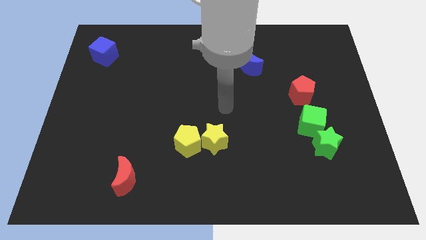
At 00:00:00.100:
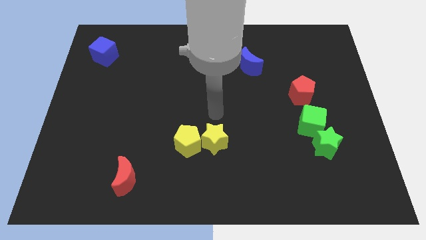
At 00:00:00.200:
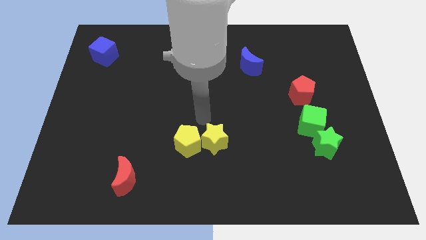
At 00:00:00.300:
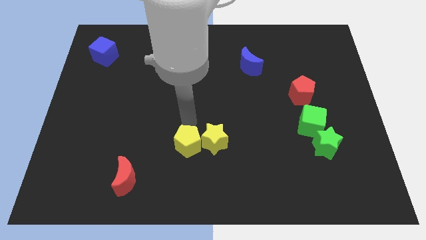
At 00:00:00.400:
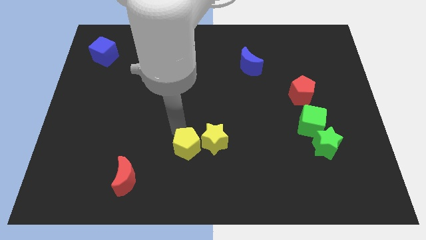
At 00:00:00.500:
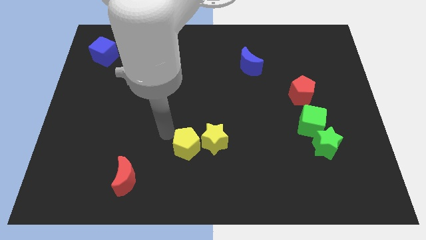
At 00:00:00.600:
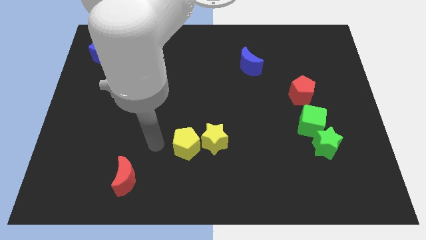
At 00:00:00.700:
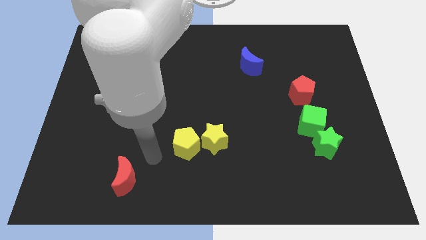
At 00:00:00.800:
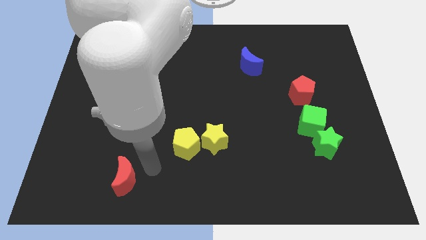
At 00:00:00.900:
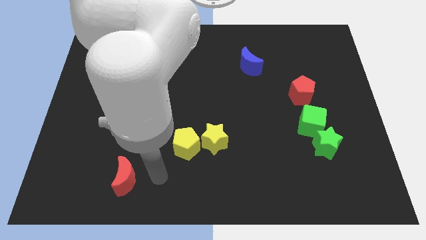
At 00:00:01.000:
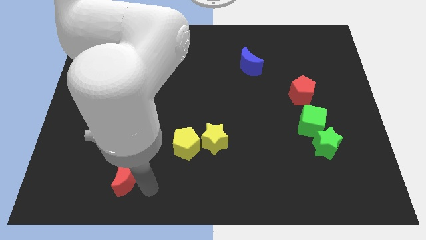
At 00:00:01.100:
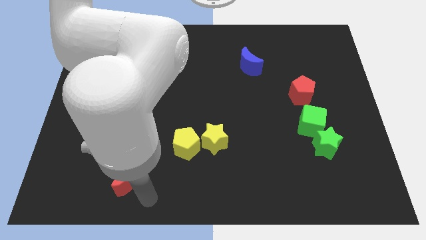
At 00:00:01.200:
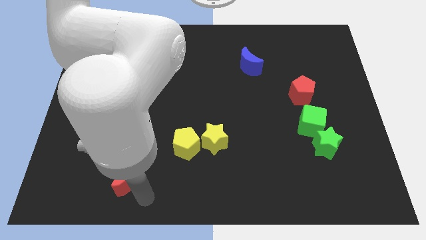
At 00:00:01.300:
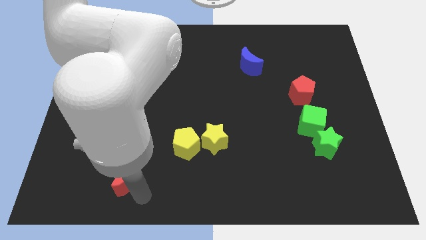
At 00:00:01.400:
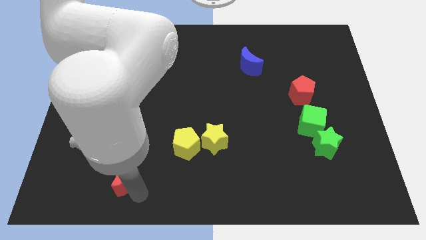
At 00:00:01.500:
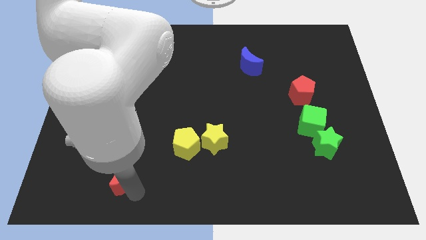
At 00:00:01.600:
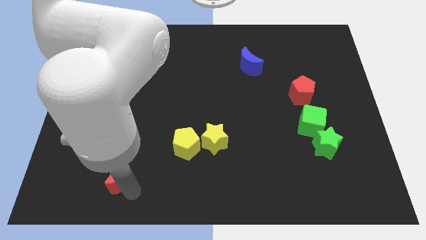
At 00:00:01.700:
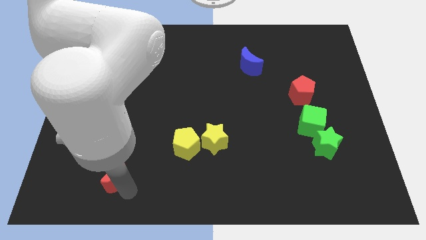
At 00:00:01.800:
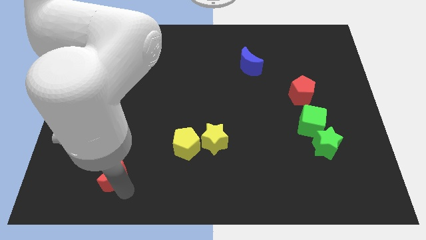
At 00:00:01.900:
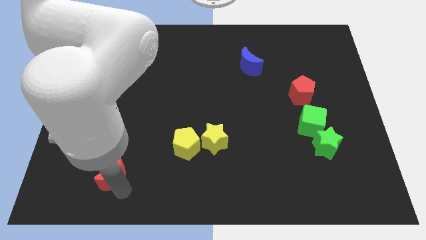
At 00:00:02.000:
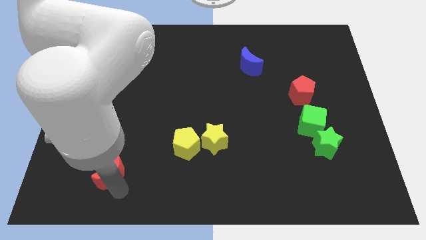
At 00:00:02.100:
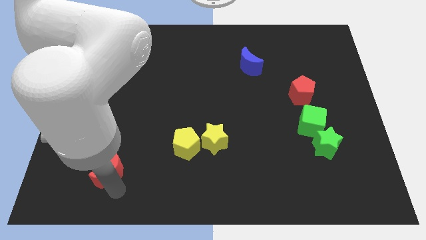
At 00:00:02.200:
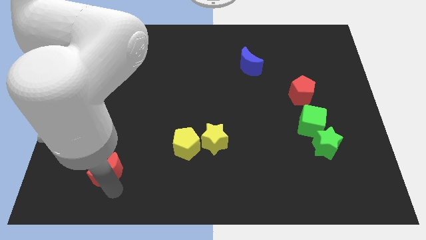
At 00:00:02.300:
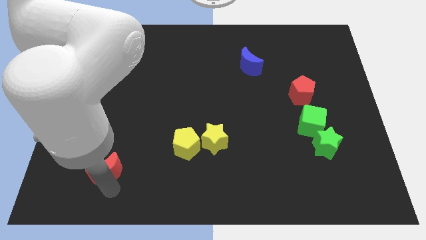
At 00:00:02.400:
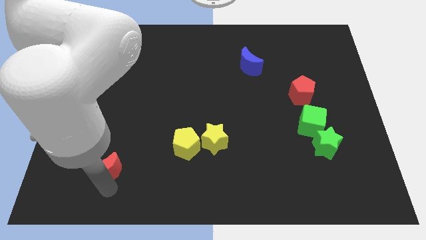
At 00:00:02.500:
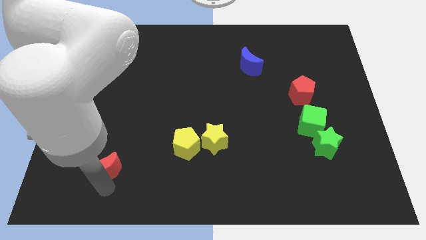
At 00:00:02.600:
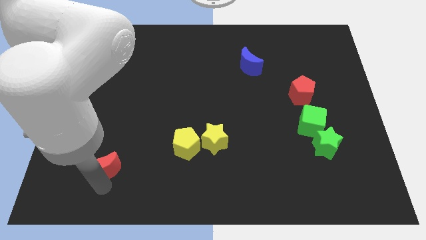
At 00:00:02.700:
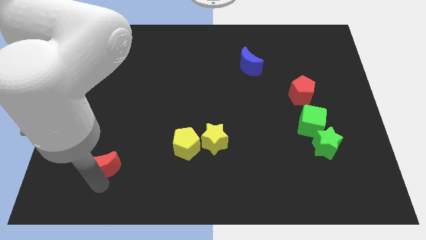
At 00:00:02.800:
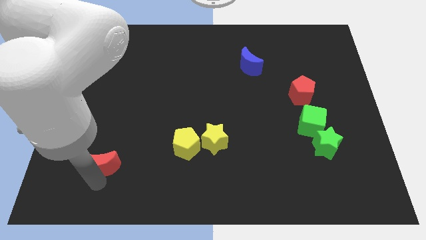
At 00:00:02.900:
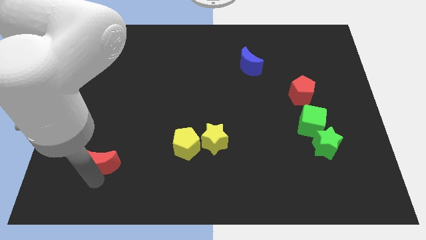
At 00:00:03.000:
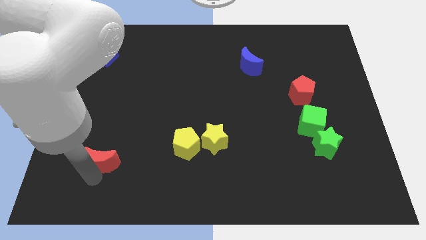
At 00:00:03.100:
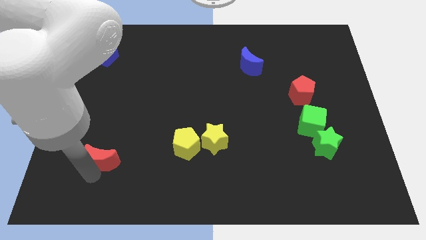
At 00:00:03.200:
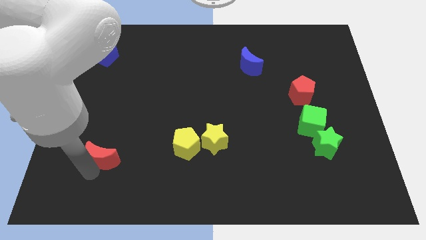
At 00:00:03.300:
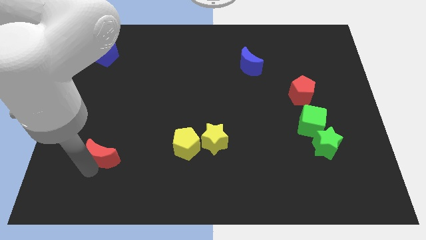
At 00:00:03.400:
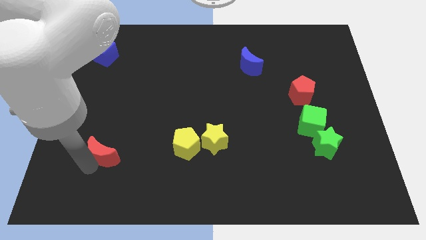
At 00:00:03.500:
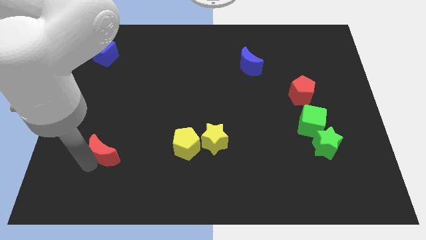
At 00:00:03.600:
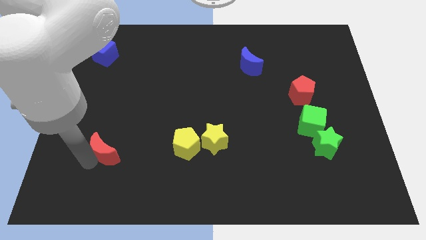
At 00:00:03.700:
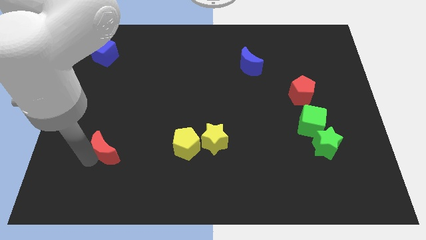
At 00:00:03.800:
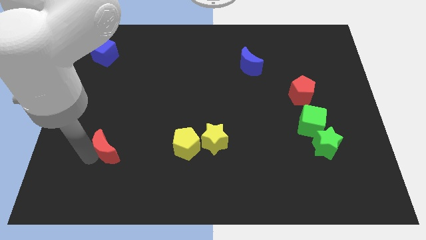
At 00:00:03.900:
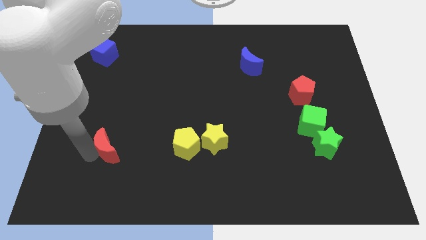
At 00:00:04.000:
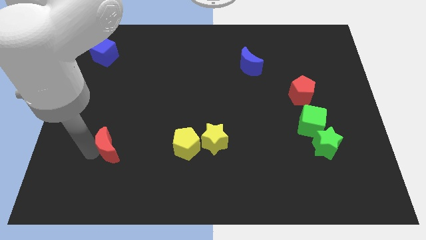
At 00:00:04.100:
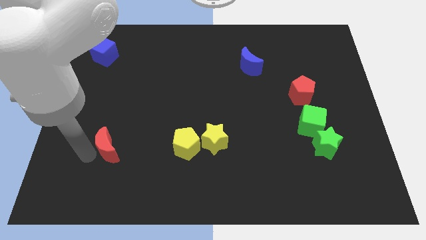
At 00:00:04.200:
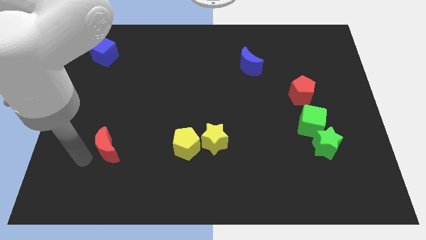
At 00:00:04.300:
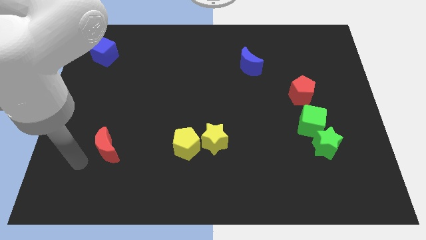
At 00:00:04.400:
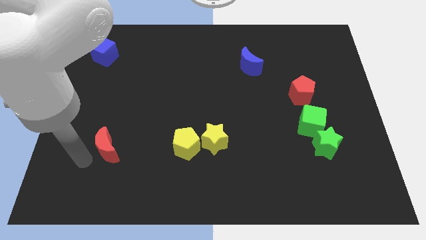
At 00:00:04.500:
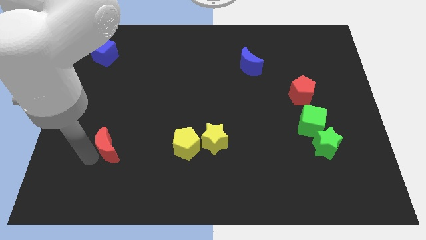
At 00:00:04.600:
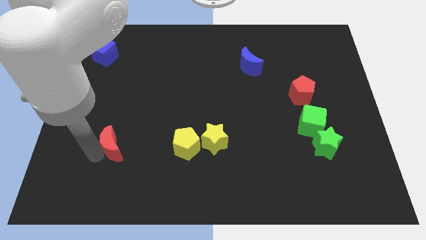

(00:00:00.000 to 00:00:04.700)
move the red moon somewhat upwards

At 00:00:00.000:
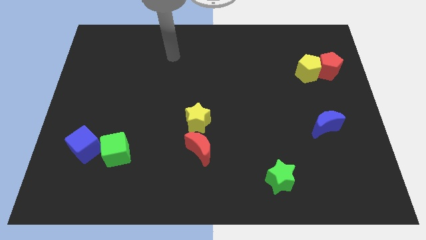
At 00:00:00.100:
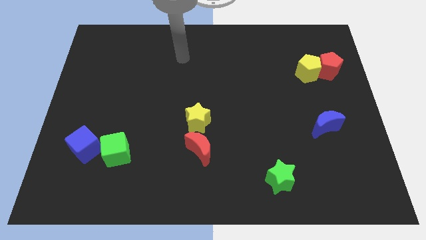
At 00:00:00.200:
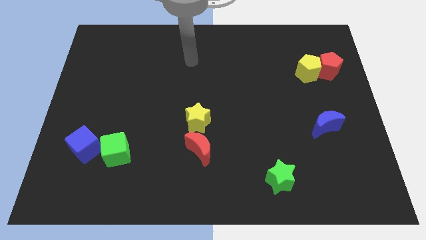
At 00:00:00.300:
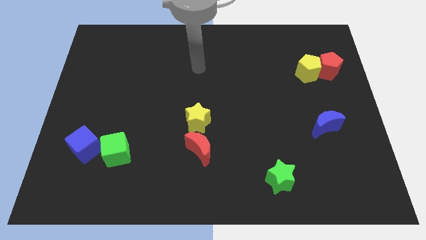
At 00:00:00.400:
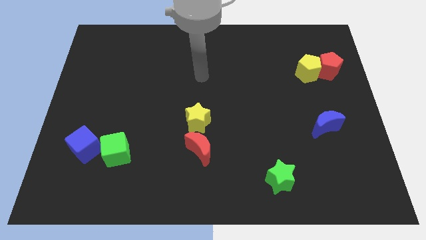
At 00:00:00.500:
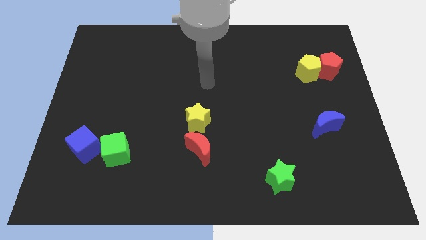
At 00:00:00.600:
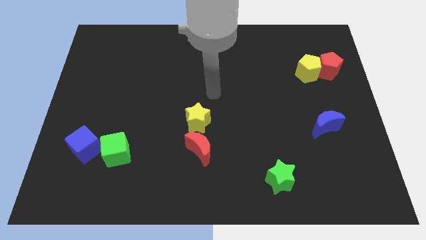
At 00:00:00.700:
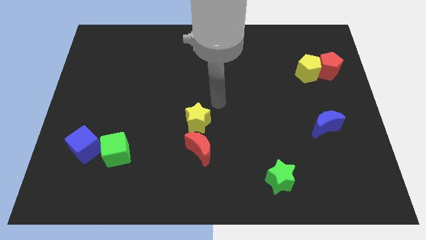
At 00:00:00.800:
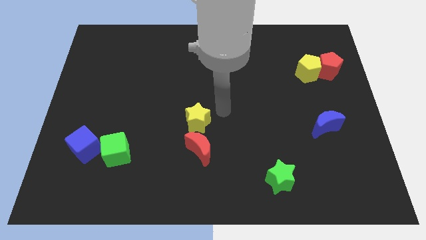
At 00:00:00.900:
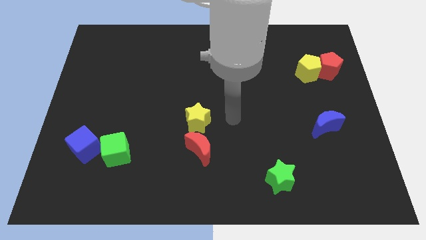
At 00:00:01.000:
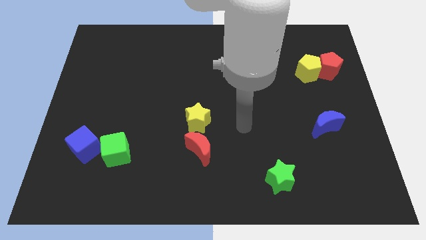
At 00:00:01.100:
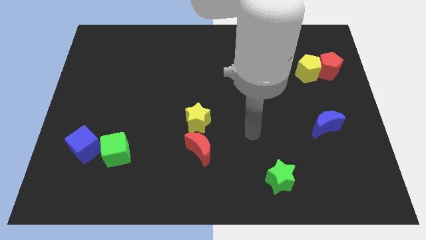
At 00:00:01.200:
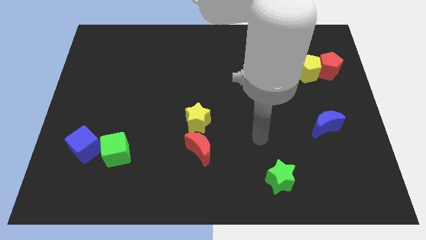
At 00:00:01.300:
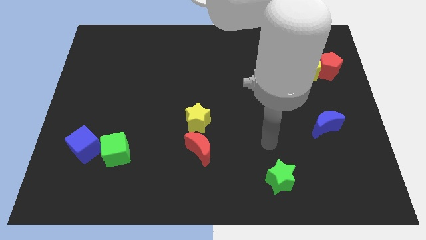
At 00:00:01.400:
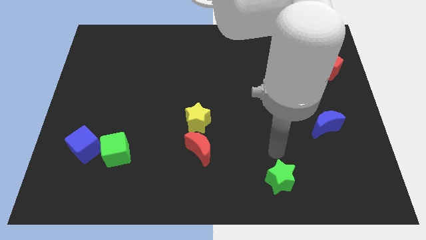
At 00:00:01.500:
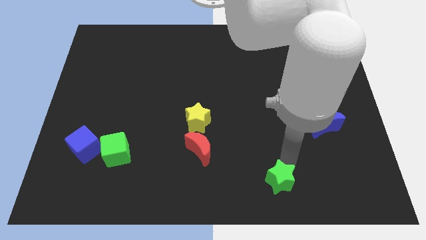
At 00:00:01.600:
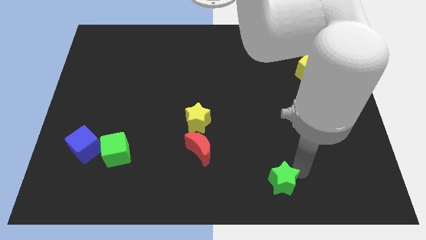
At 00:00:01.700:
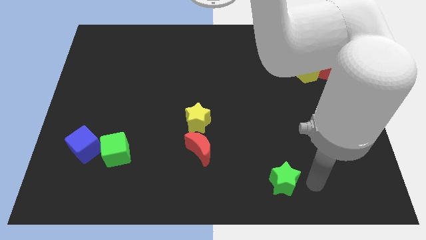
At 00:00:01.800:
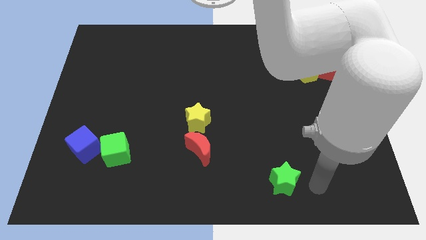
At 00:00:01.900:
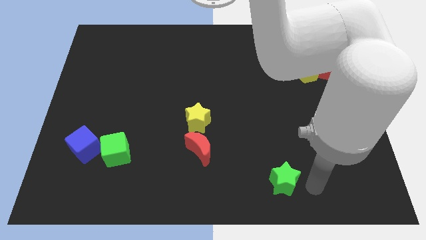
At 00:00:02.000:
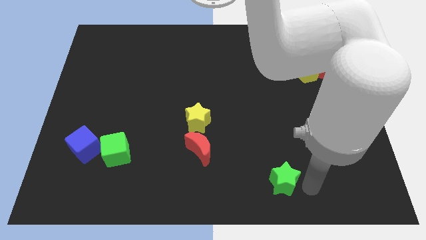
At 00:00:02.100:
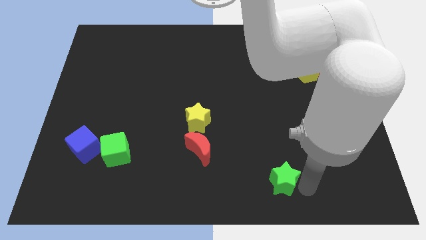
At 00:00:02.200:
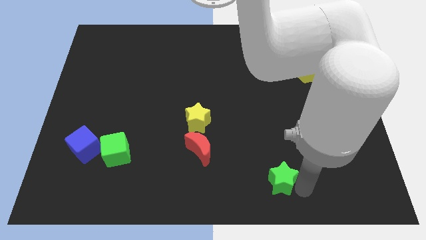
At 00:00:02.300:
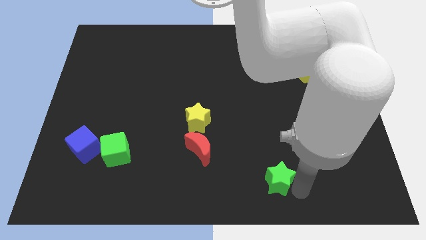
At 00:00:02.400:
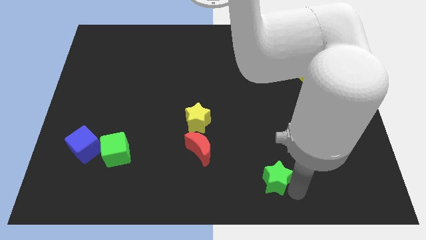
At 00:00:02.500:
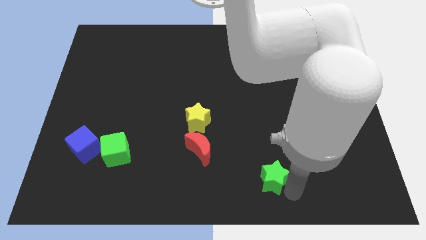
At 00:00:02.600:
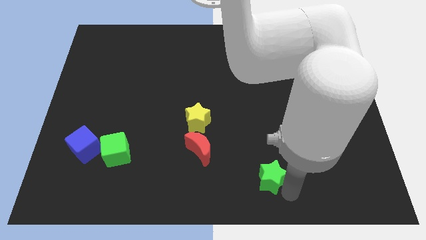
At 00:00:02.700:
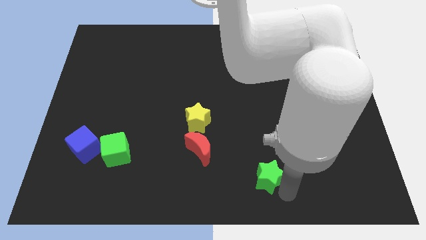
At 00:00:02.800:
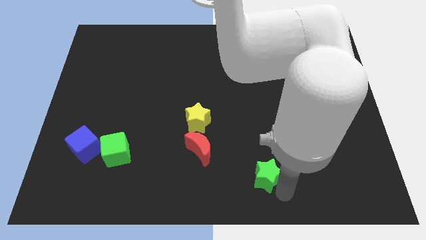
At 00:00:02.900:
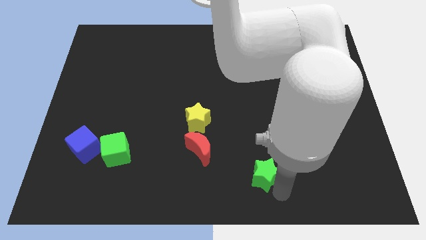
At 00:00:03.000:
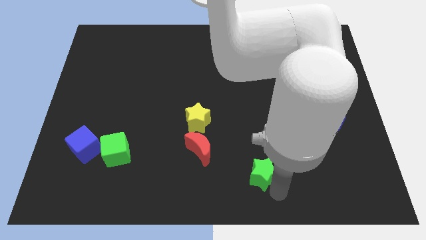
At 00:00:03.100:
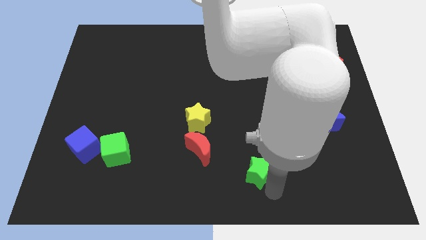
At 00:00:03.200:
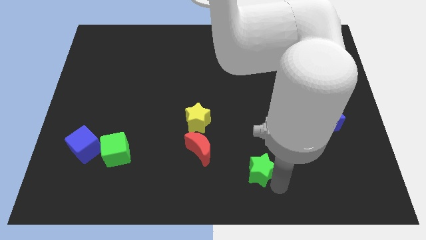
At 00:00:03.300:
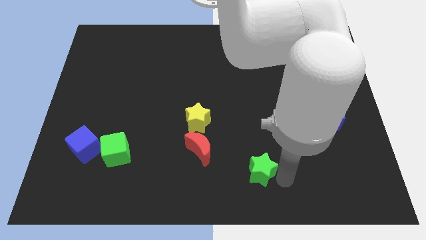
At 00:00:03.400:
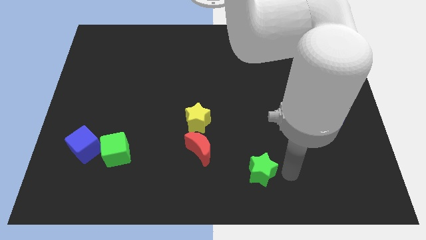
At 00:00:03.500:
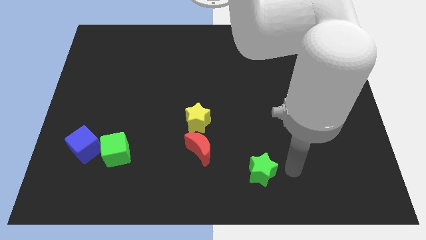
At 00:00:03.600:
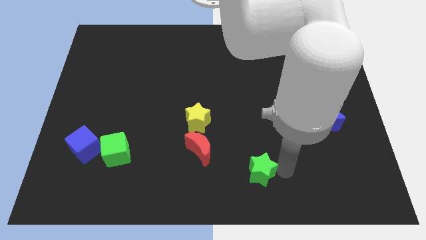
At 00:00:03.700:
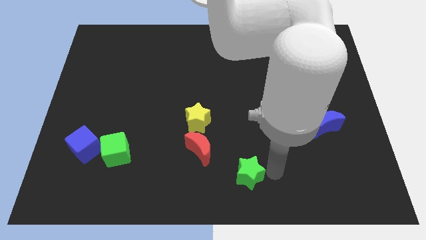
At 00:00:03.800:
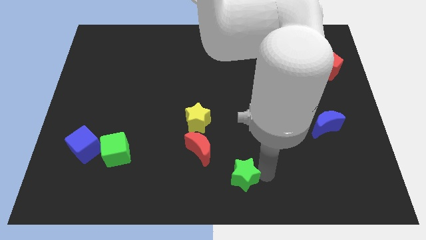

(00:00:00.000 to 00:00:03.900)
slightly push the green star to the left
